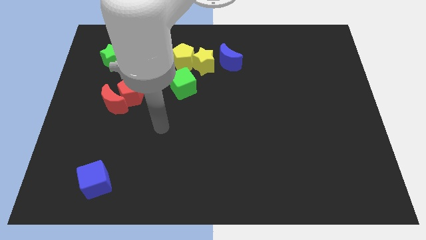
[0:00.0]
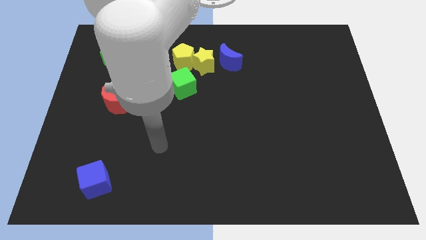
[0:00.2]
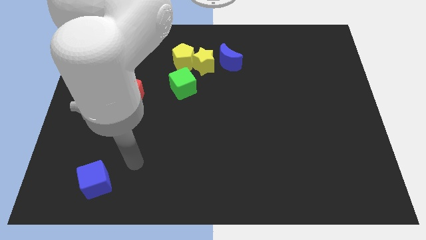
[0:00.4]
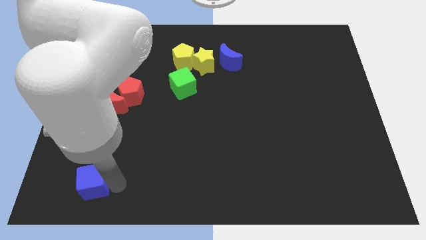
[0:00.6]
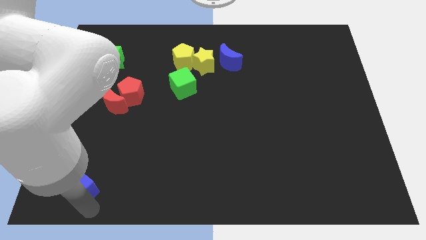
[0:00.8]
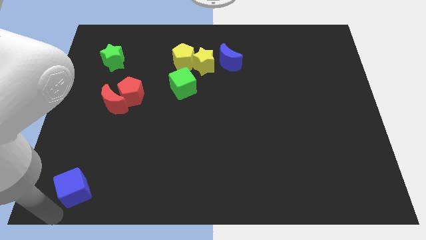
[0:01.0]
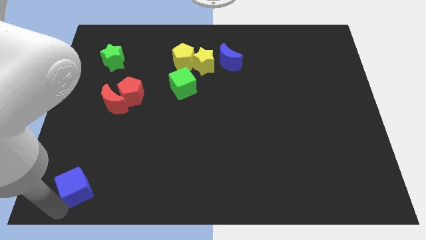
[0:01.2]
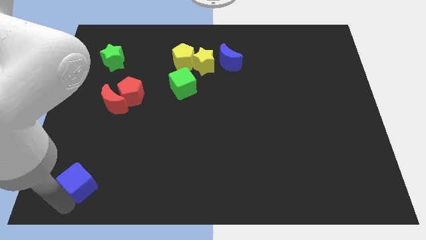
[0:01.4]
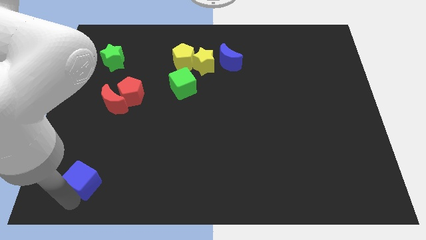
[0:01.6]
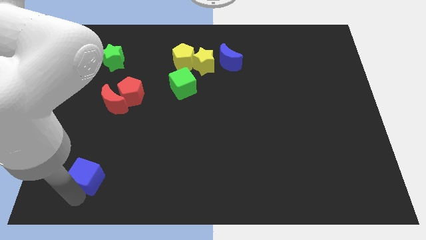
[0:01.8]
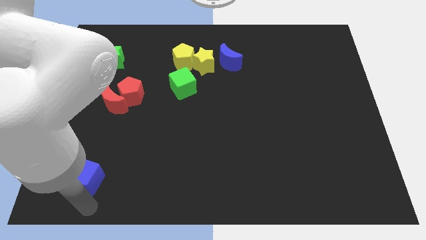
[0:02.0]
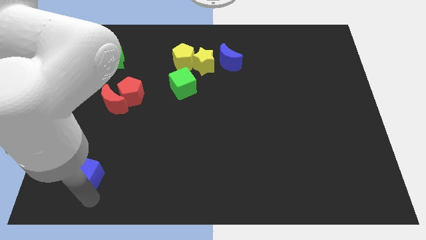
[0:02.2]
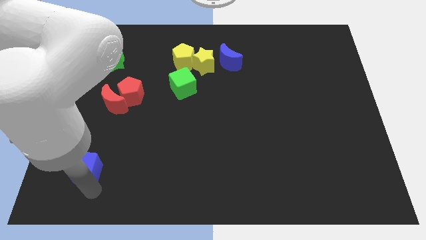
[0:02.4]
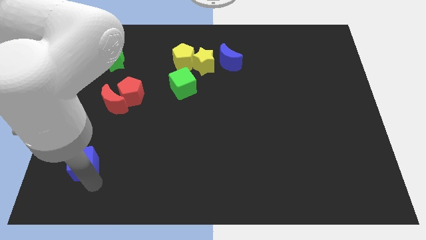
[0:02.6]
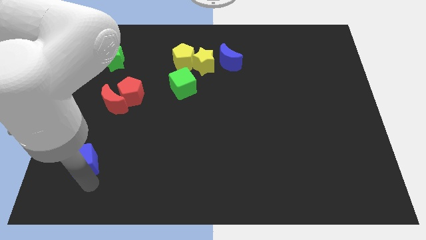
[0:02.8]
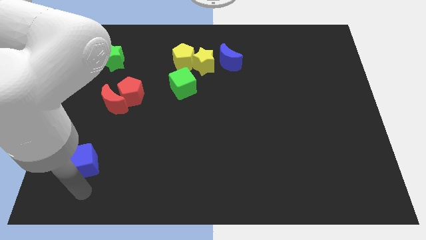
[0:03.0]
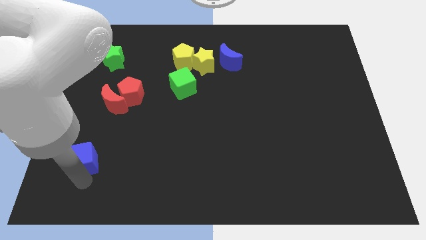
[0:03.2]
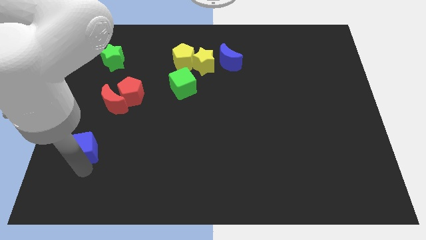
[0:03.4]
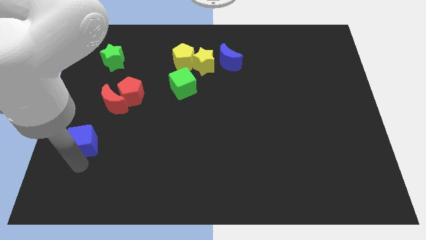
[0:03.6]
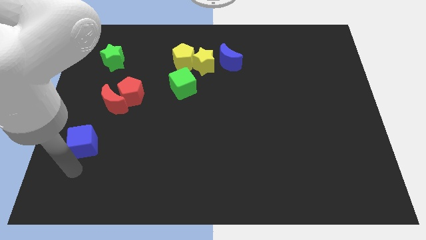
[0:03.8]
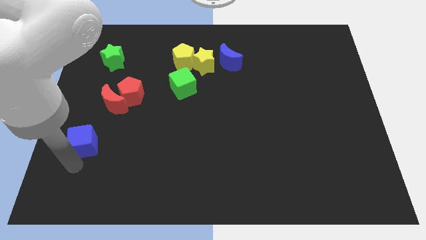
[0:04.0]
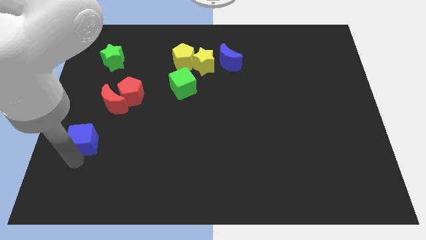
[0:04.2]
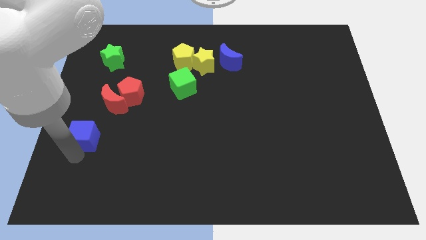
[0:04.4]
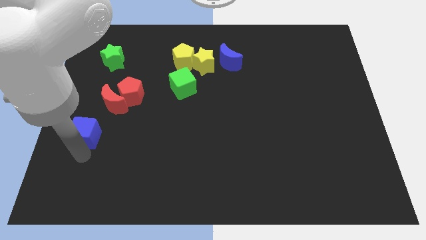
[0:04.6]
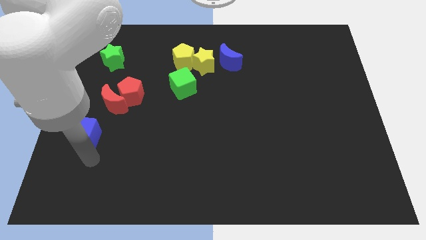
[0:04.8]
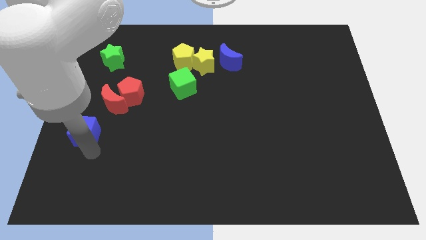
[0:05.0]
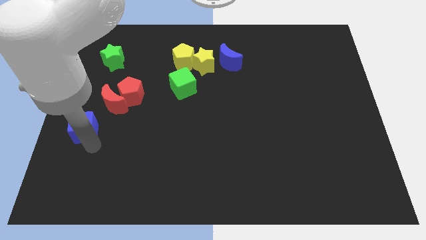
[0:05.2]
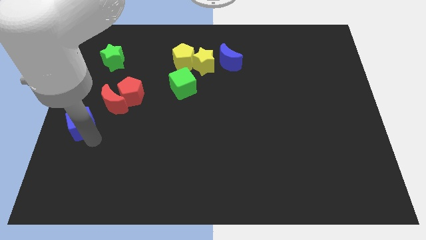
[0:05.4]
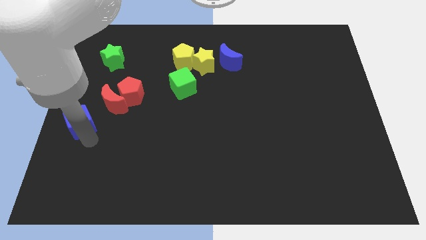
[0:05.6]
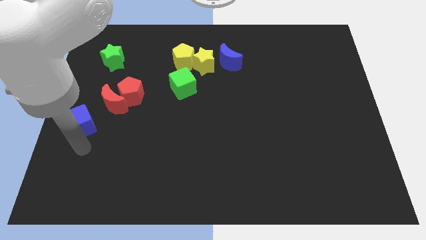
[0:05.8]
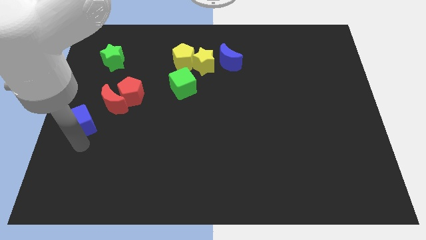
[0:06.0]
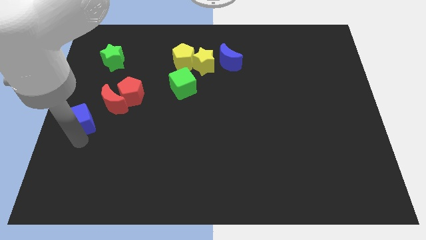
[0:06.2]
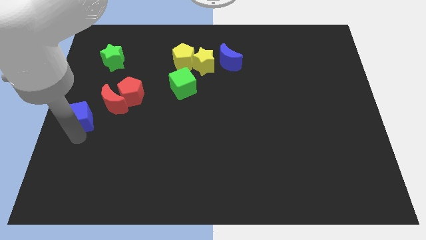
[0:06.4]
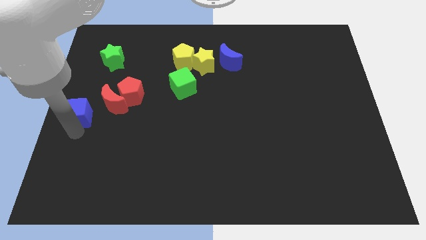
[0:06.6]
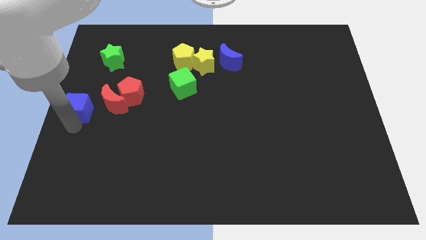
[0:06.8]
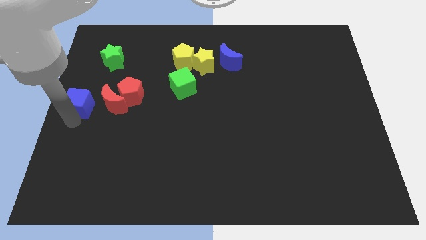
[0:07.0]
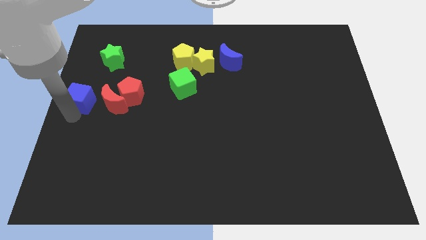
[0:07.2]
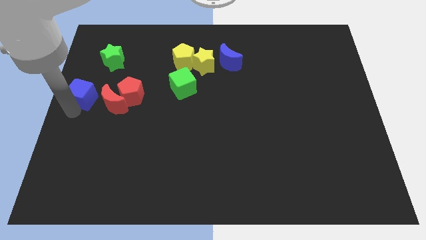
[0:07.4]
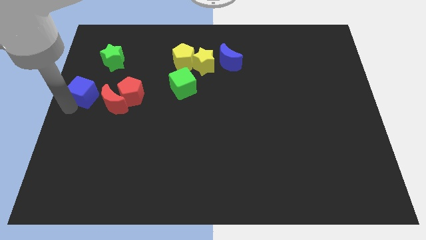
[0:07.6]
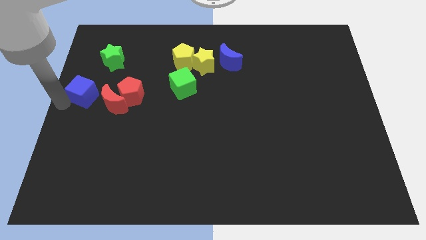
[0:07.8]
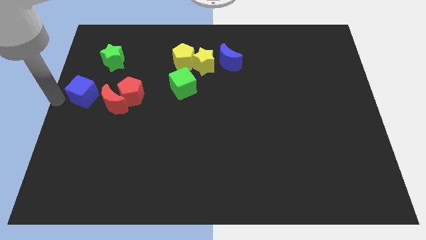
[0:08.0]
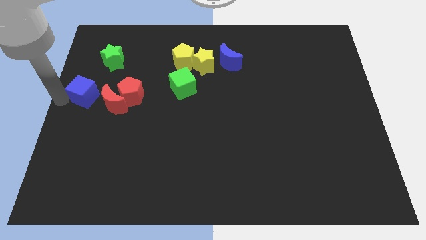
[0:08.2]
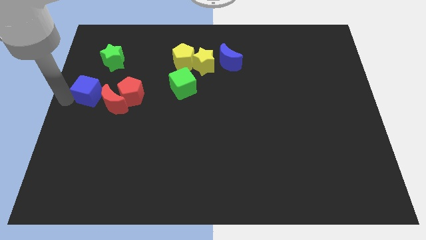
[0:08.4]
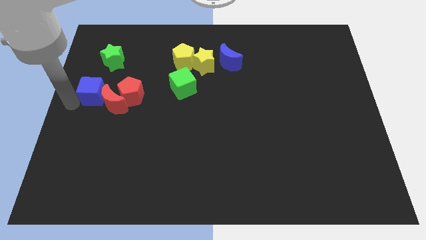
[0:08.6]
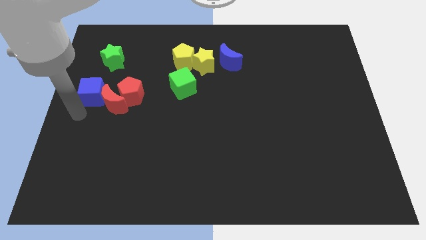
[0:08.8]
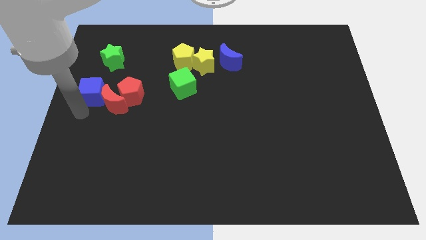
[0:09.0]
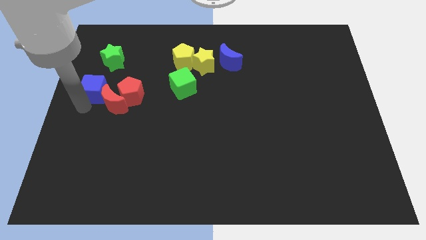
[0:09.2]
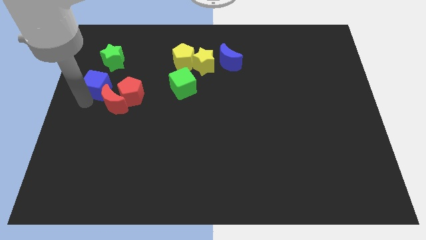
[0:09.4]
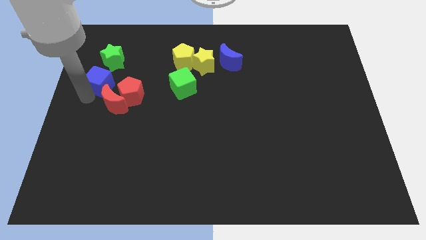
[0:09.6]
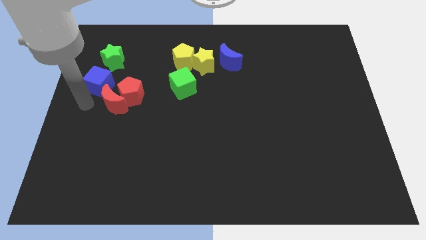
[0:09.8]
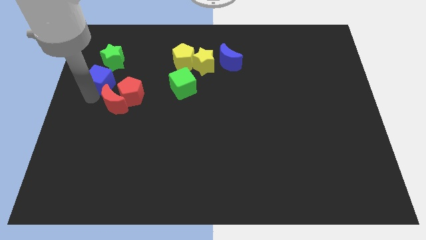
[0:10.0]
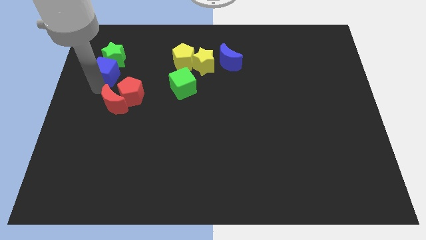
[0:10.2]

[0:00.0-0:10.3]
put the blue cube close to the green star

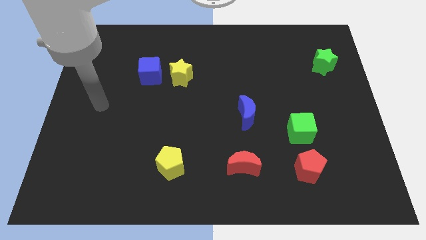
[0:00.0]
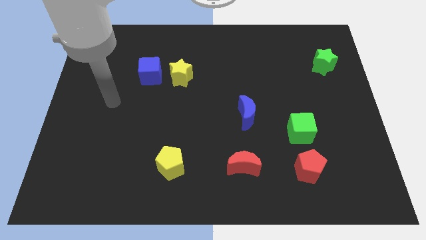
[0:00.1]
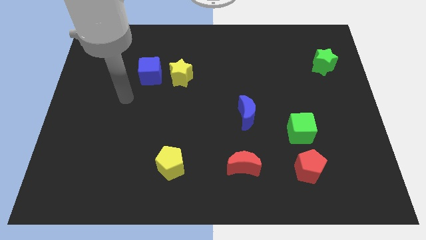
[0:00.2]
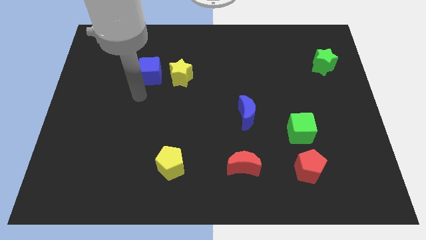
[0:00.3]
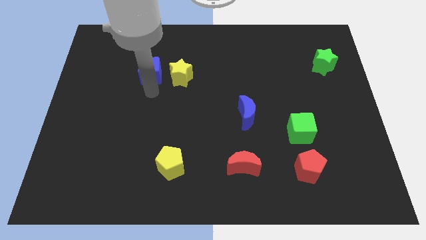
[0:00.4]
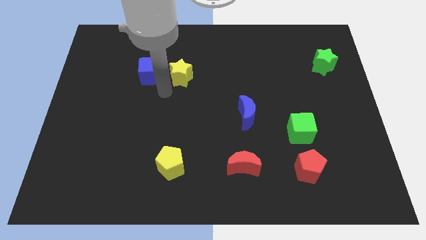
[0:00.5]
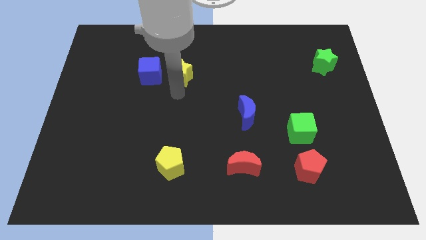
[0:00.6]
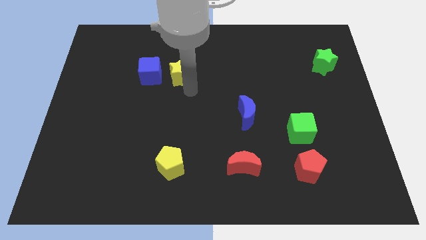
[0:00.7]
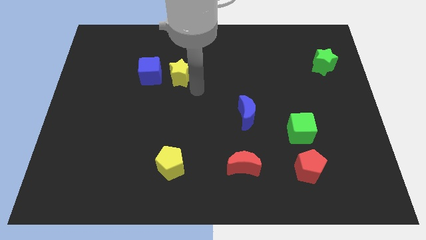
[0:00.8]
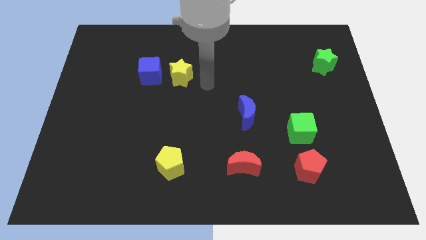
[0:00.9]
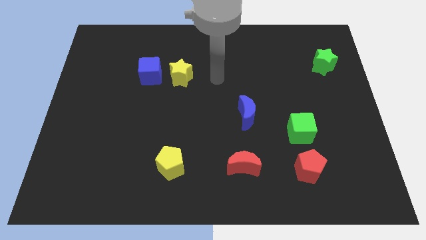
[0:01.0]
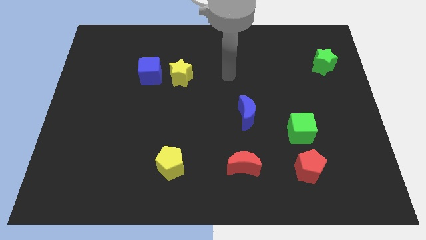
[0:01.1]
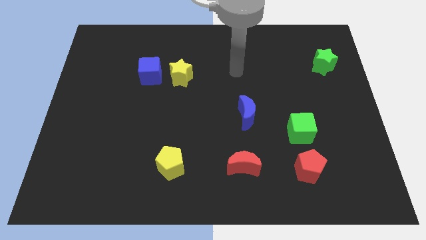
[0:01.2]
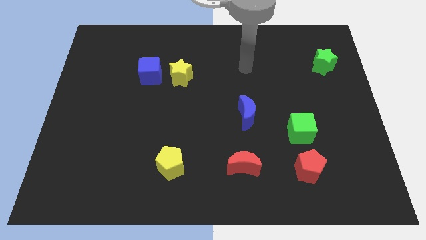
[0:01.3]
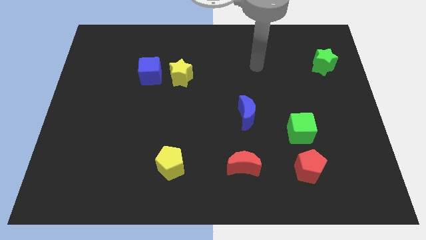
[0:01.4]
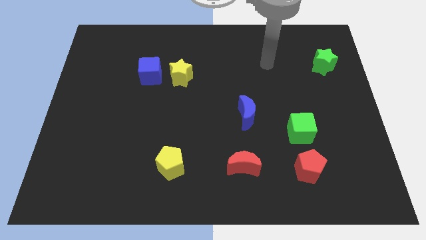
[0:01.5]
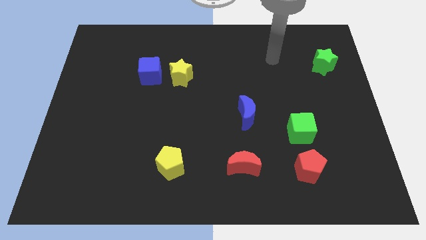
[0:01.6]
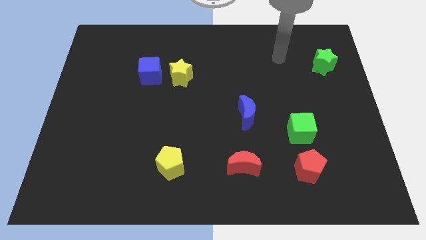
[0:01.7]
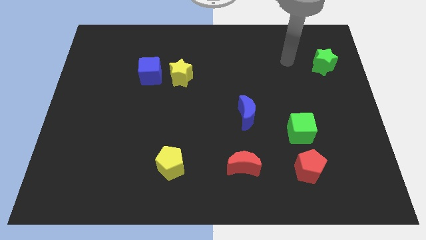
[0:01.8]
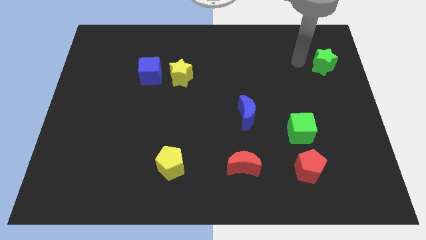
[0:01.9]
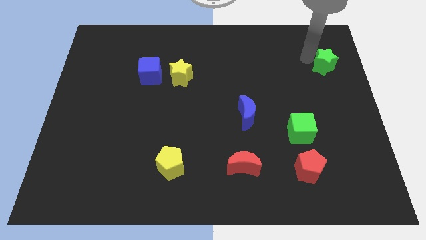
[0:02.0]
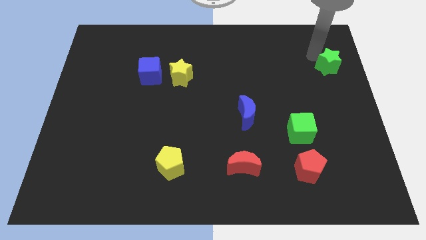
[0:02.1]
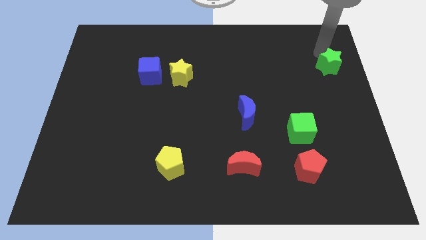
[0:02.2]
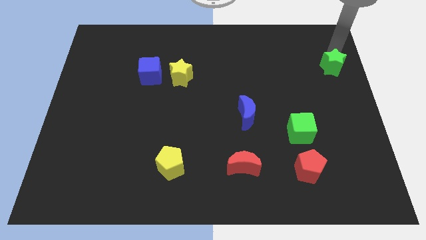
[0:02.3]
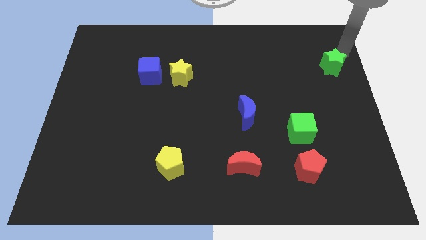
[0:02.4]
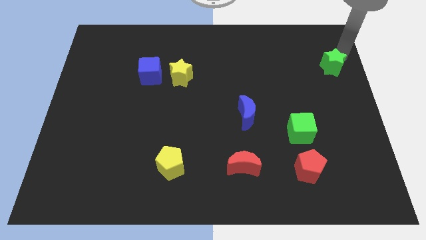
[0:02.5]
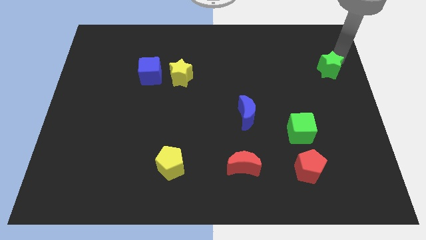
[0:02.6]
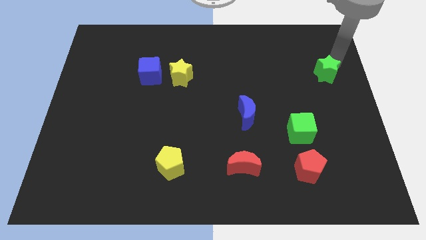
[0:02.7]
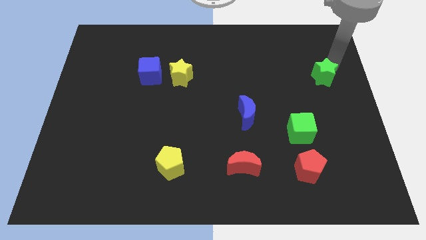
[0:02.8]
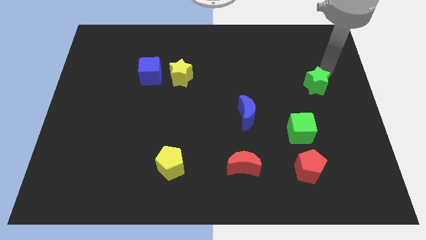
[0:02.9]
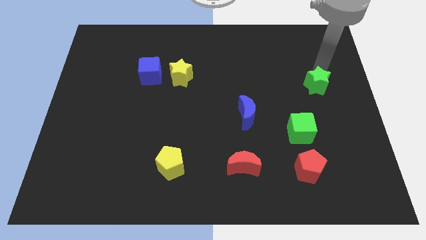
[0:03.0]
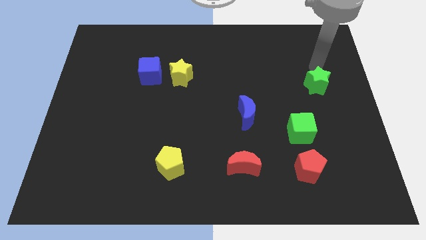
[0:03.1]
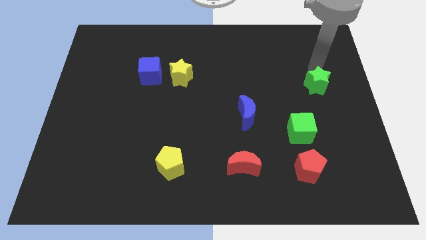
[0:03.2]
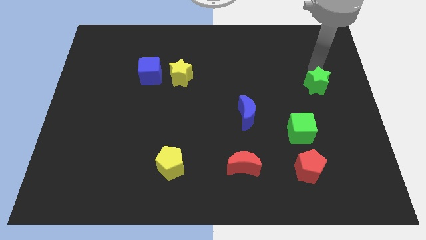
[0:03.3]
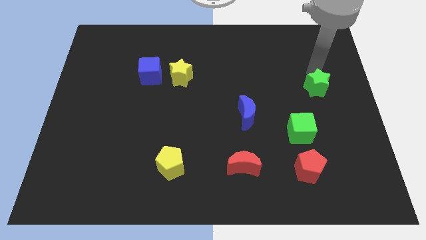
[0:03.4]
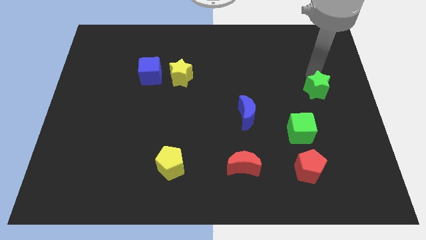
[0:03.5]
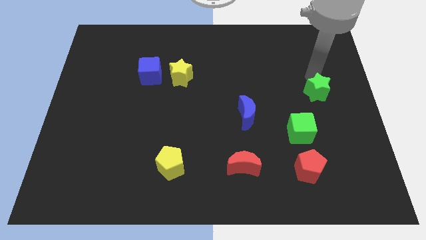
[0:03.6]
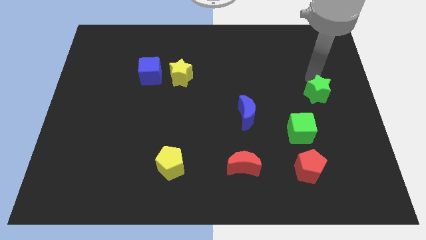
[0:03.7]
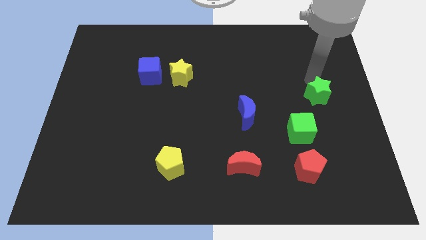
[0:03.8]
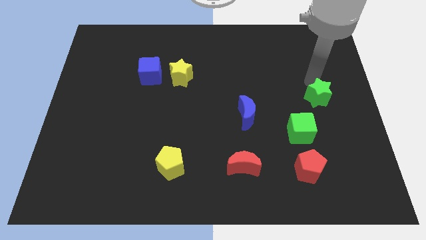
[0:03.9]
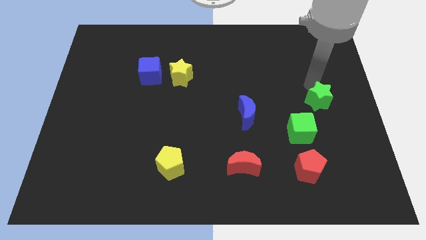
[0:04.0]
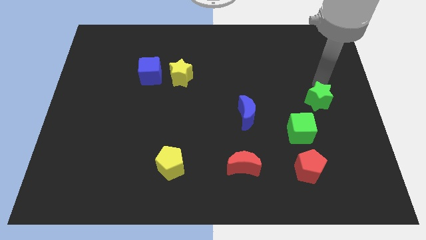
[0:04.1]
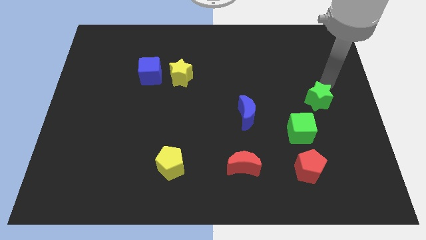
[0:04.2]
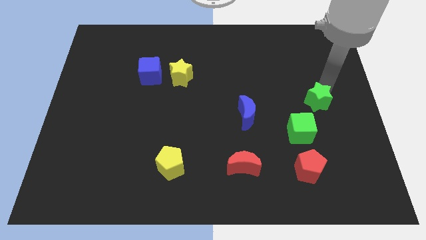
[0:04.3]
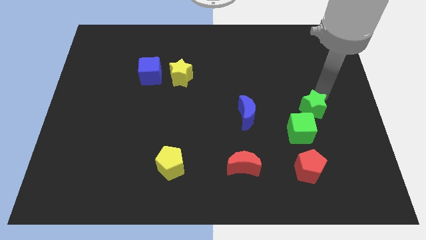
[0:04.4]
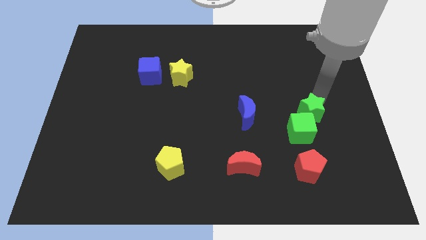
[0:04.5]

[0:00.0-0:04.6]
move the green star to the green cube
